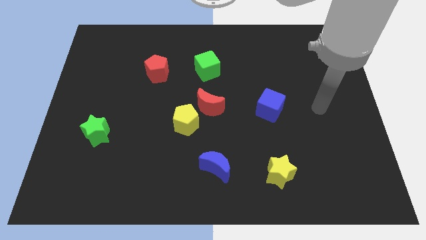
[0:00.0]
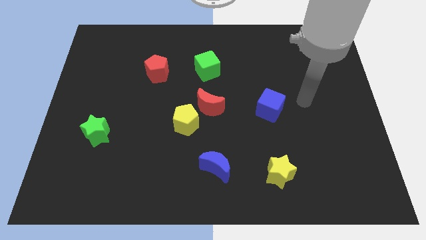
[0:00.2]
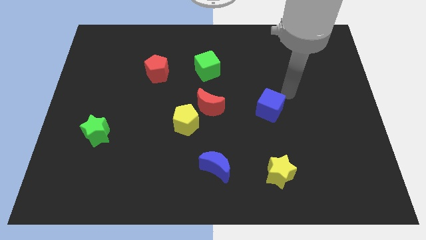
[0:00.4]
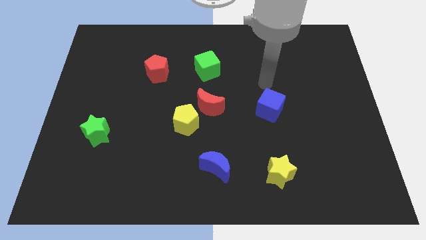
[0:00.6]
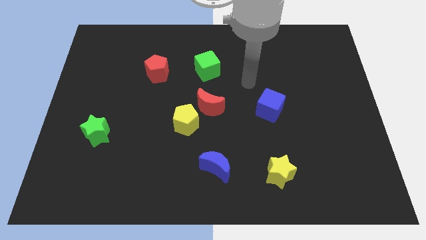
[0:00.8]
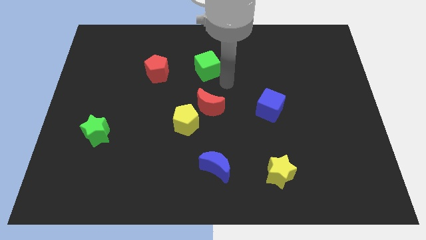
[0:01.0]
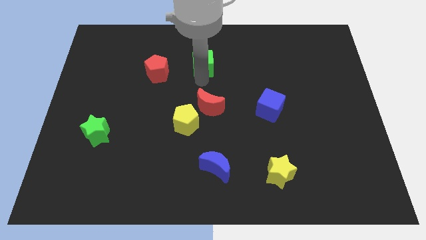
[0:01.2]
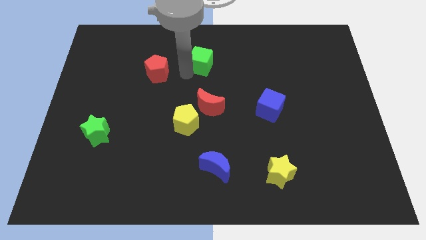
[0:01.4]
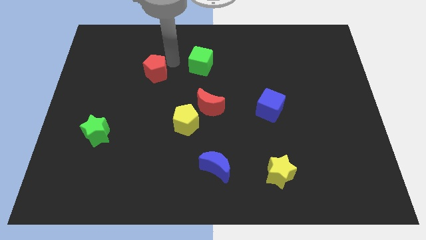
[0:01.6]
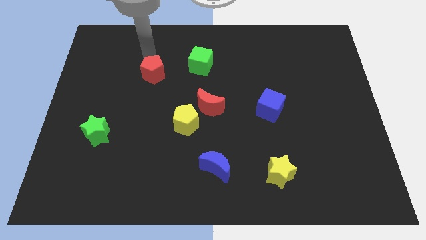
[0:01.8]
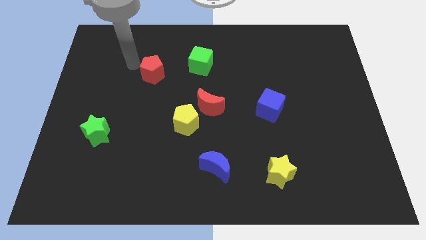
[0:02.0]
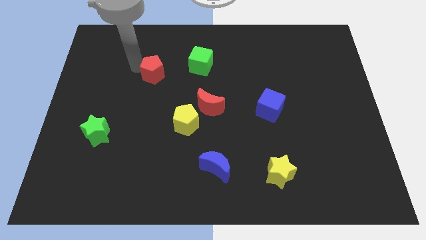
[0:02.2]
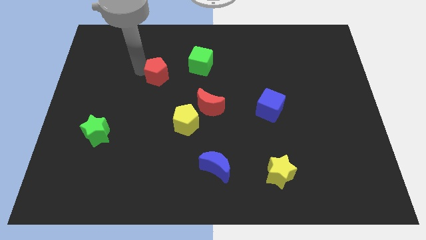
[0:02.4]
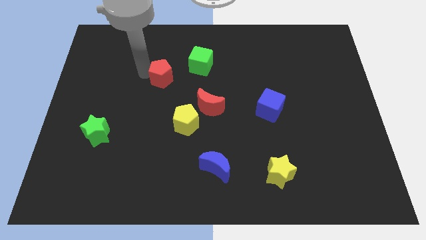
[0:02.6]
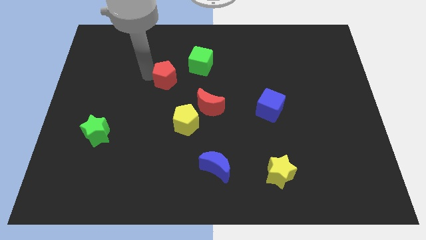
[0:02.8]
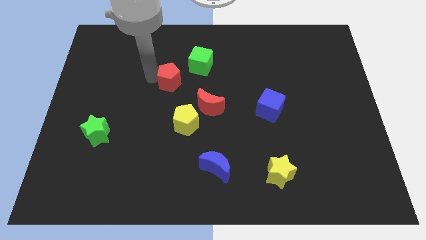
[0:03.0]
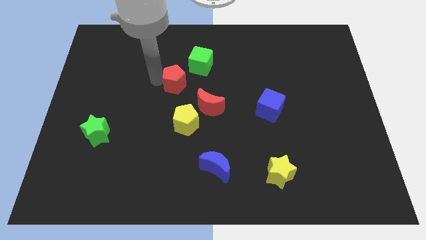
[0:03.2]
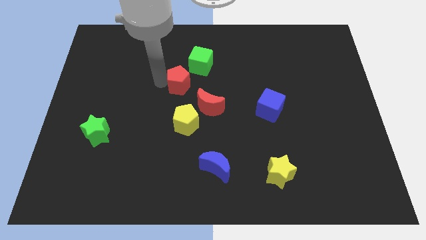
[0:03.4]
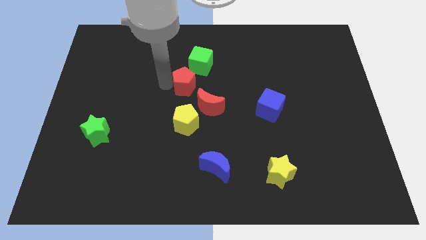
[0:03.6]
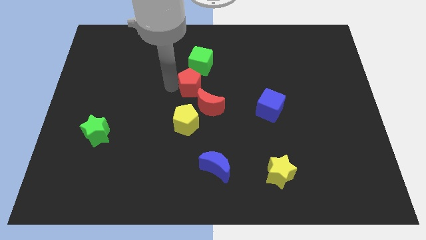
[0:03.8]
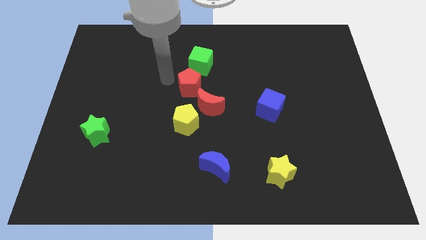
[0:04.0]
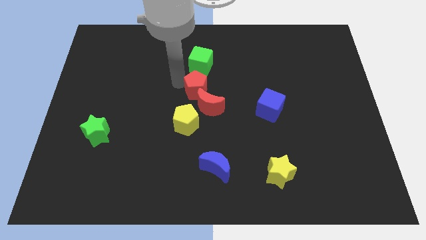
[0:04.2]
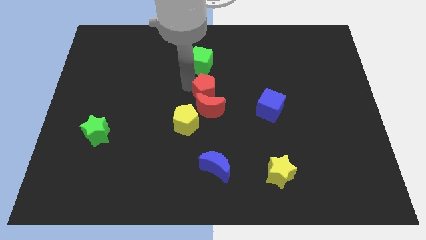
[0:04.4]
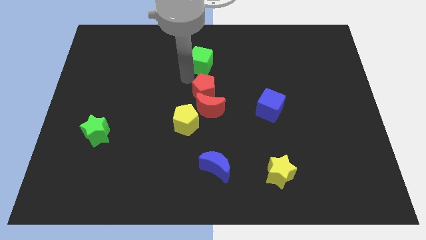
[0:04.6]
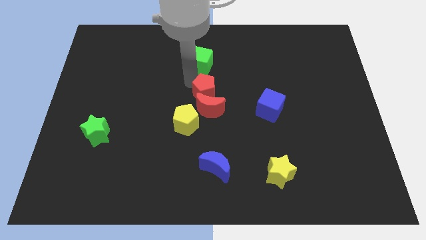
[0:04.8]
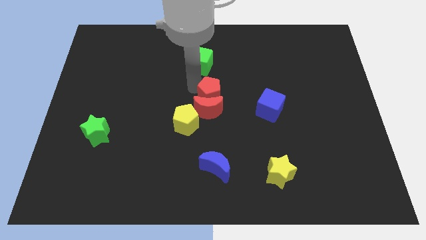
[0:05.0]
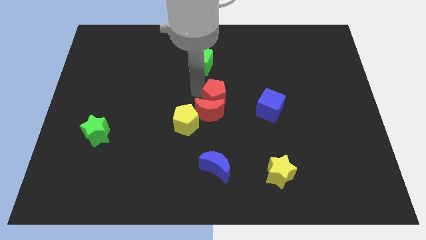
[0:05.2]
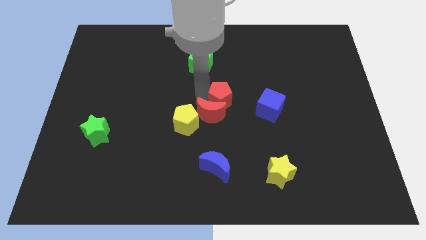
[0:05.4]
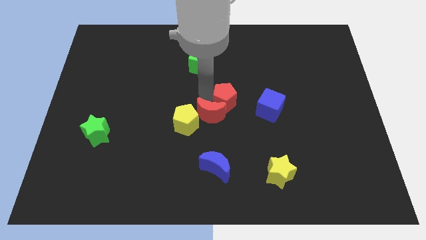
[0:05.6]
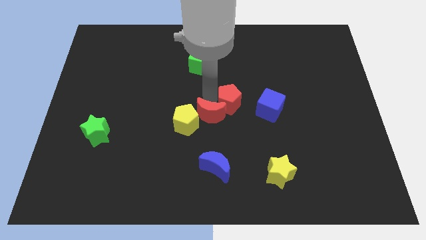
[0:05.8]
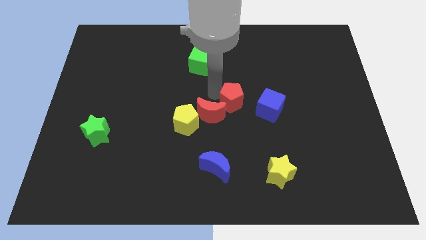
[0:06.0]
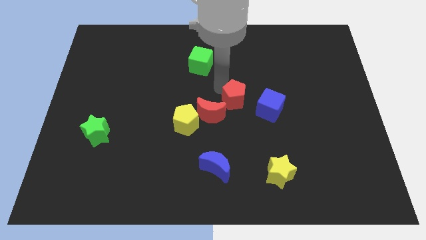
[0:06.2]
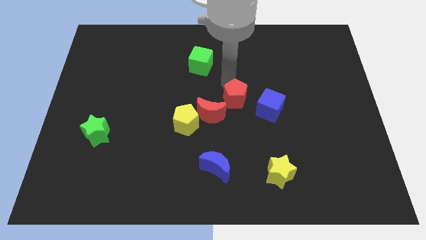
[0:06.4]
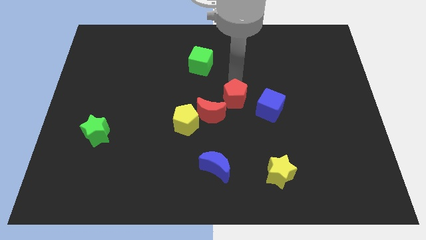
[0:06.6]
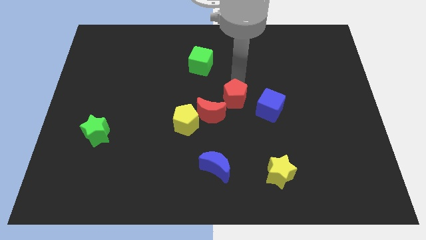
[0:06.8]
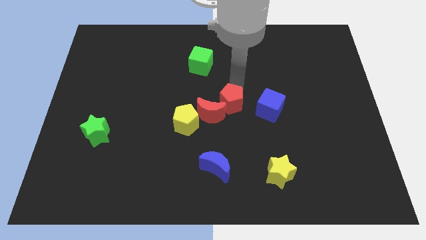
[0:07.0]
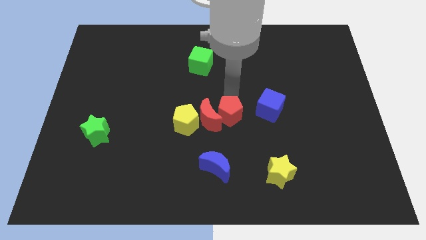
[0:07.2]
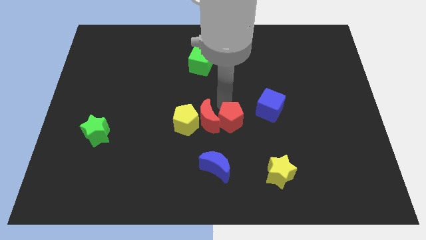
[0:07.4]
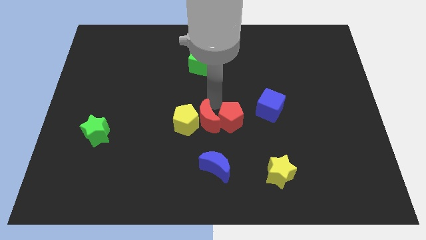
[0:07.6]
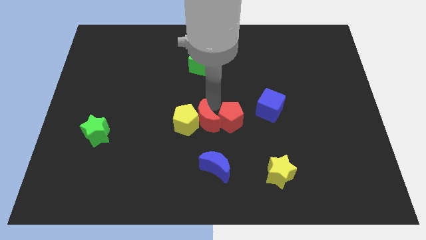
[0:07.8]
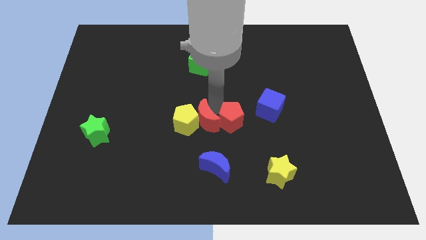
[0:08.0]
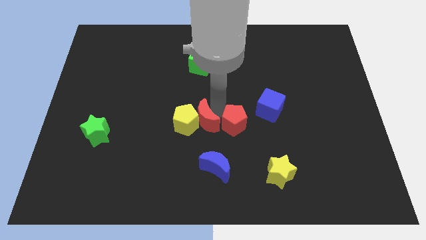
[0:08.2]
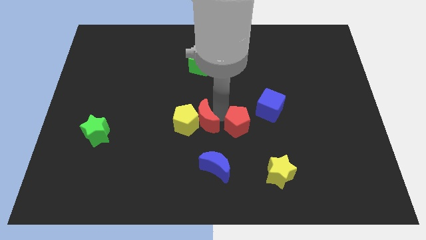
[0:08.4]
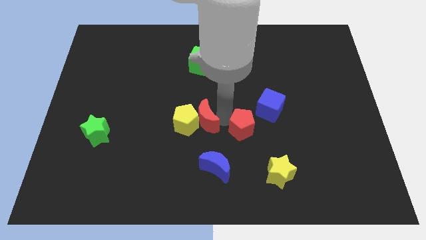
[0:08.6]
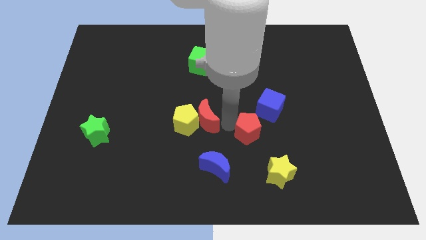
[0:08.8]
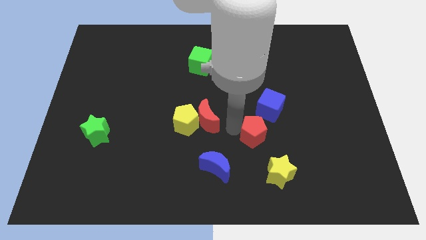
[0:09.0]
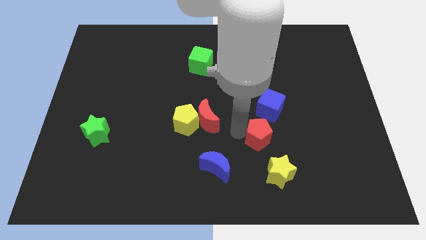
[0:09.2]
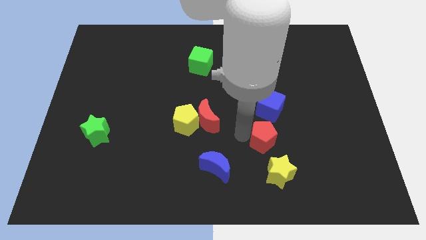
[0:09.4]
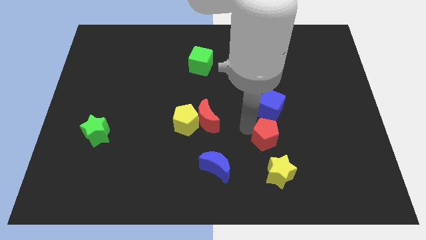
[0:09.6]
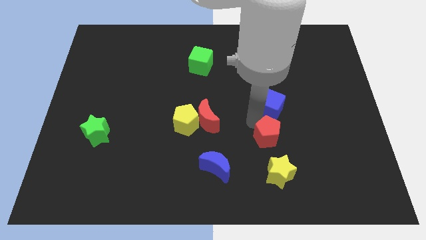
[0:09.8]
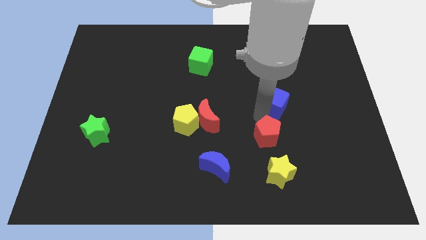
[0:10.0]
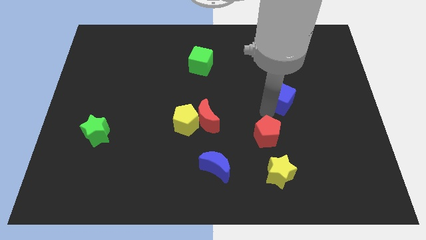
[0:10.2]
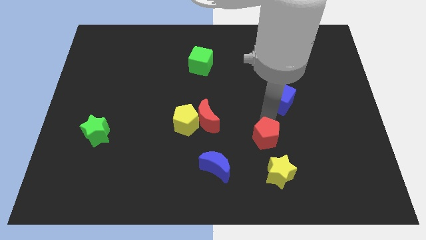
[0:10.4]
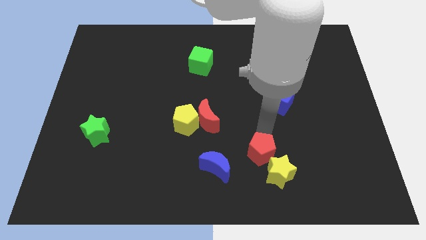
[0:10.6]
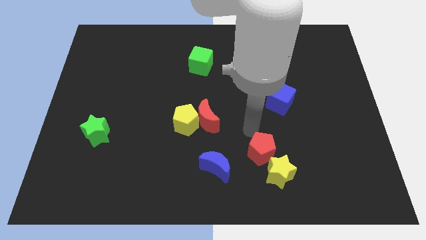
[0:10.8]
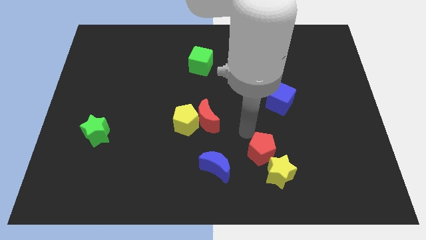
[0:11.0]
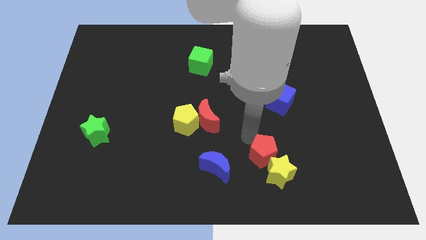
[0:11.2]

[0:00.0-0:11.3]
put the red pentagon towards the yellow star

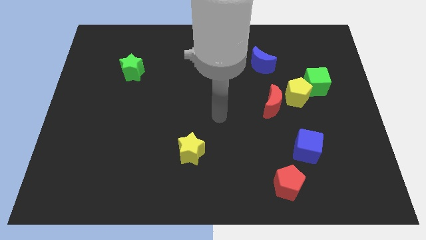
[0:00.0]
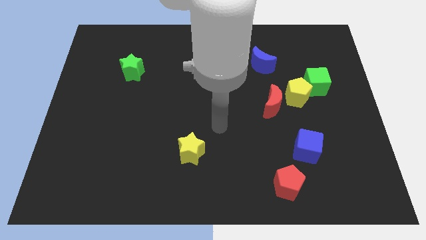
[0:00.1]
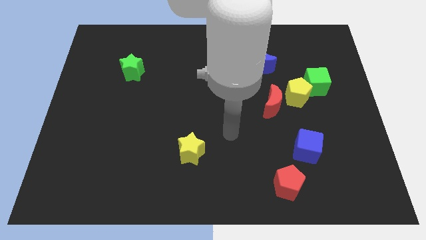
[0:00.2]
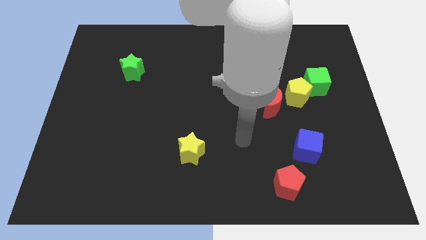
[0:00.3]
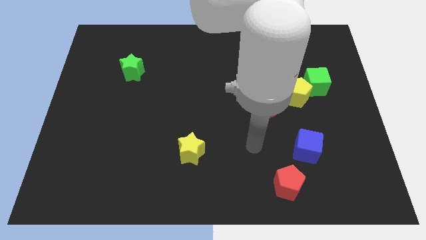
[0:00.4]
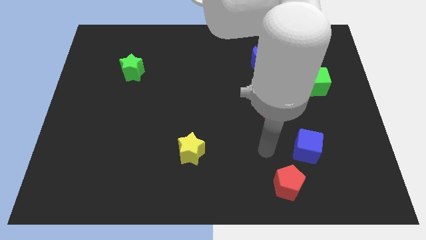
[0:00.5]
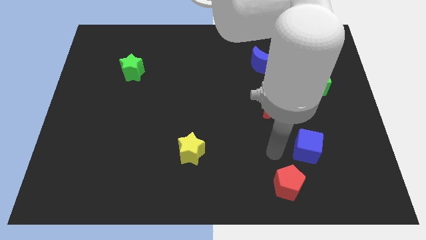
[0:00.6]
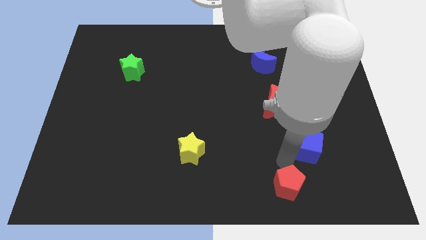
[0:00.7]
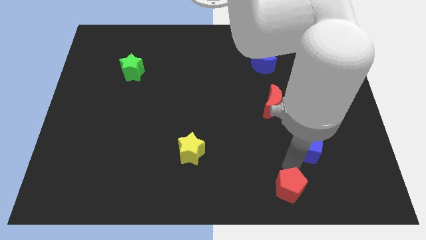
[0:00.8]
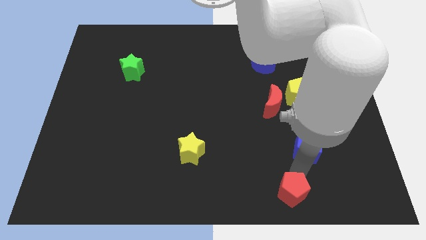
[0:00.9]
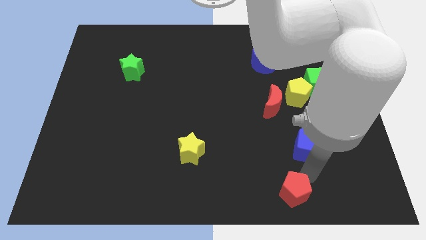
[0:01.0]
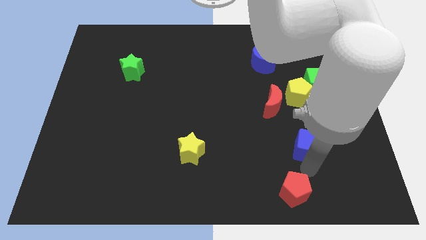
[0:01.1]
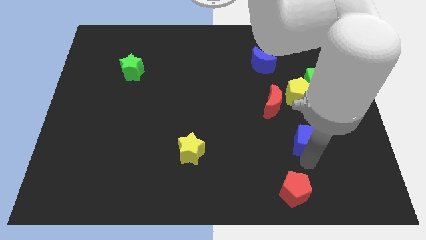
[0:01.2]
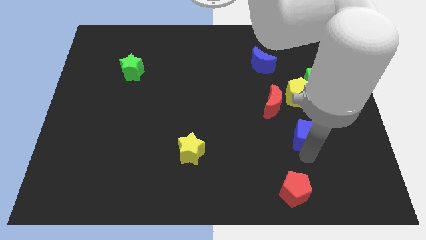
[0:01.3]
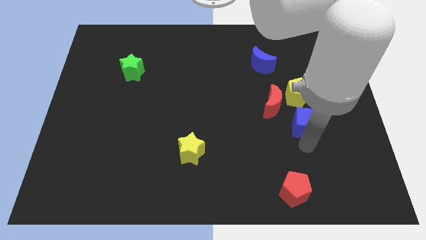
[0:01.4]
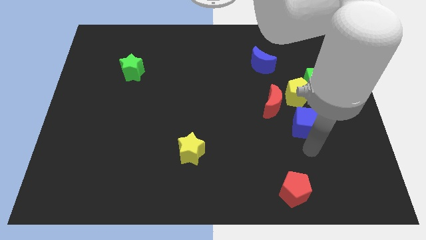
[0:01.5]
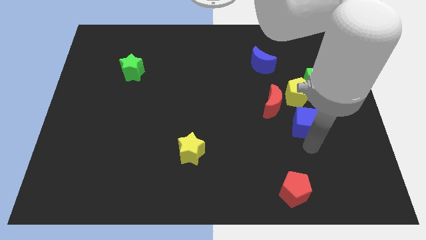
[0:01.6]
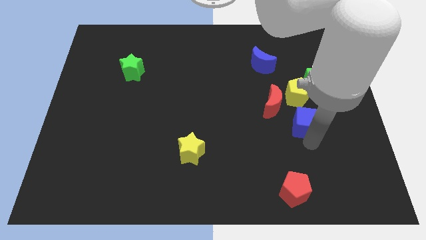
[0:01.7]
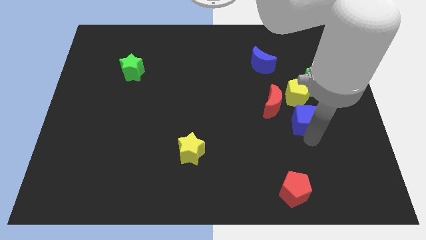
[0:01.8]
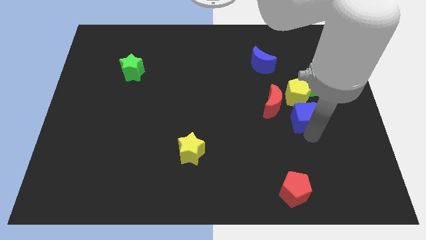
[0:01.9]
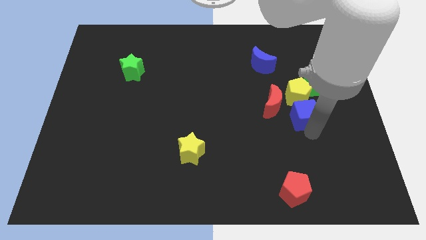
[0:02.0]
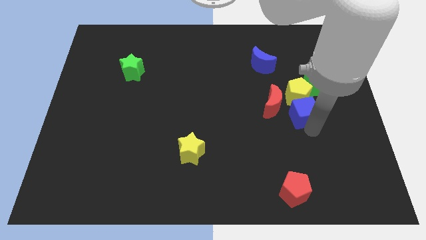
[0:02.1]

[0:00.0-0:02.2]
slide the blue cube next to the yellow pentagon
